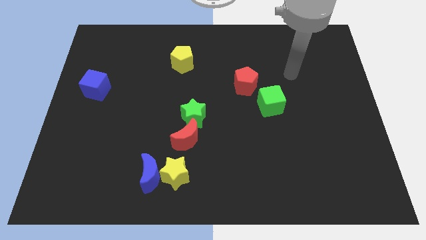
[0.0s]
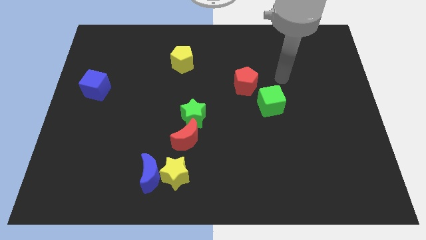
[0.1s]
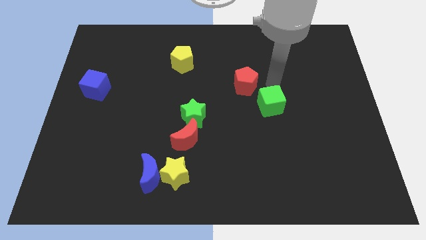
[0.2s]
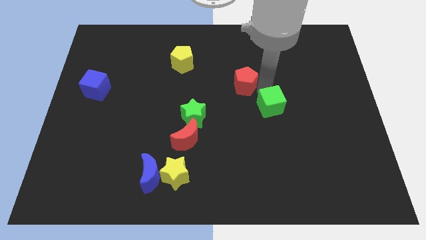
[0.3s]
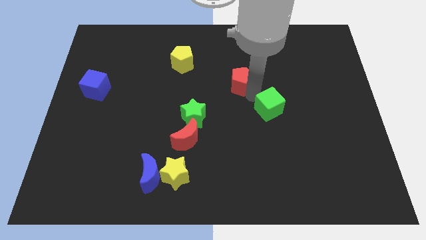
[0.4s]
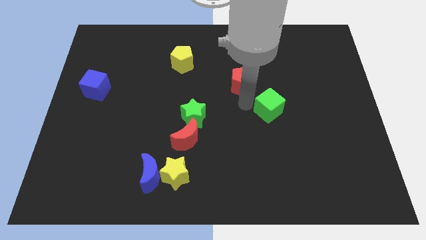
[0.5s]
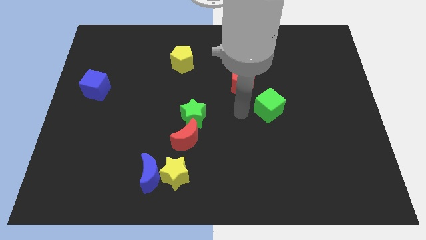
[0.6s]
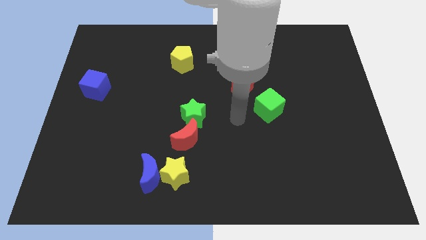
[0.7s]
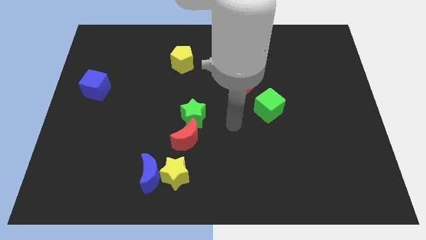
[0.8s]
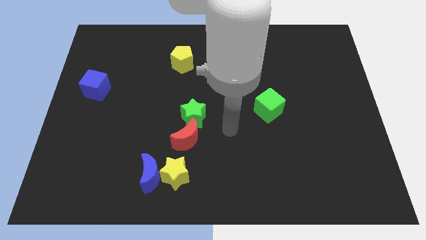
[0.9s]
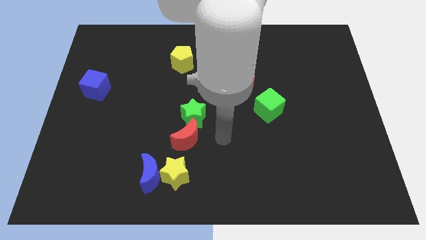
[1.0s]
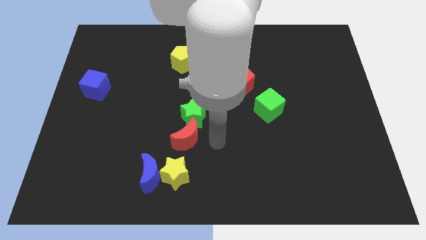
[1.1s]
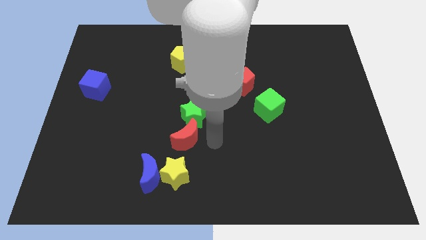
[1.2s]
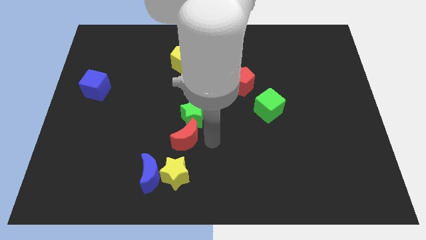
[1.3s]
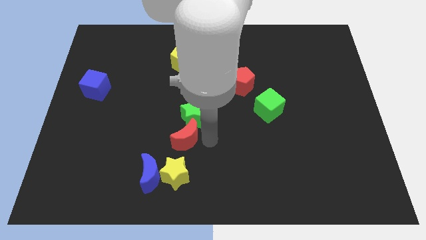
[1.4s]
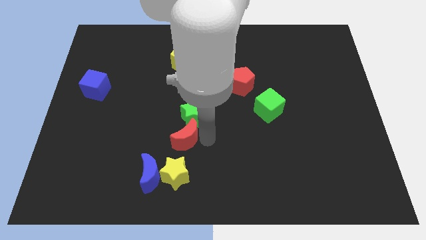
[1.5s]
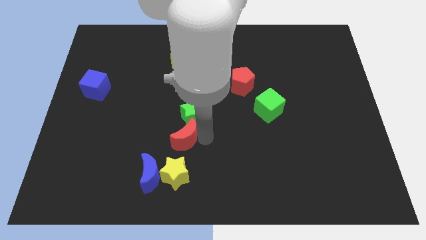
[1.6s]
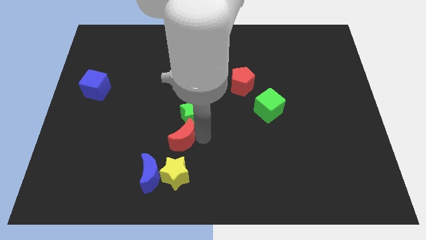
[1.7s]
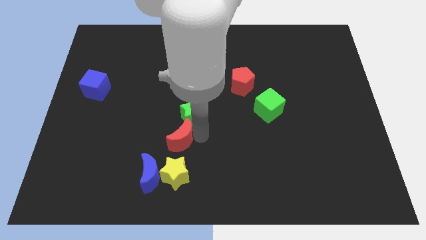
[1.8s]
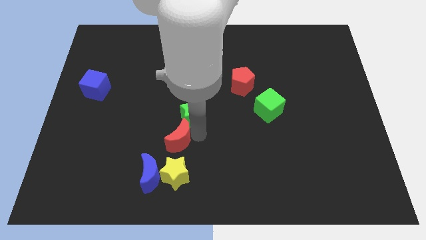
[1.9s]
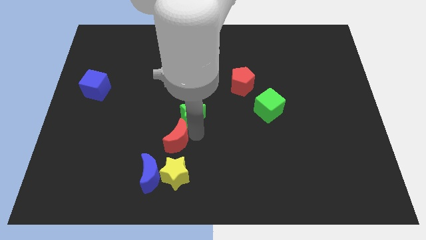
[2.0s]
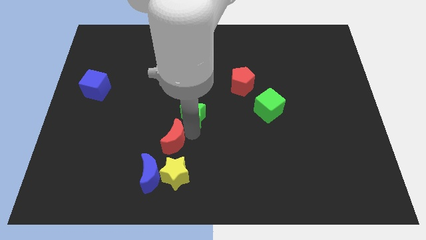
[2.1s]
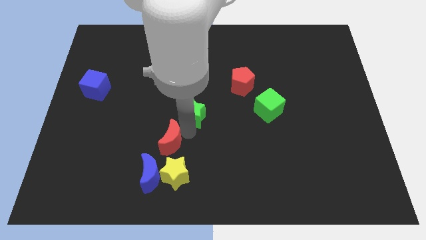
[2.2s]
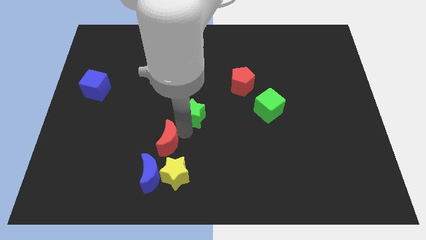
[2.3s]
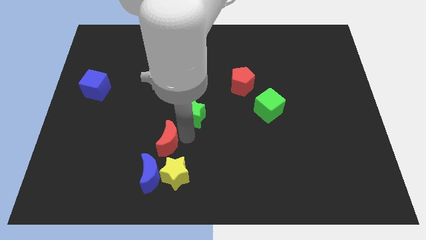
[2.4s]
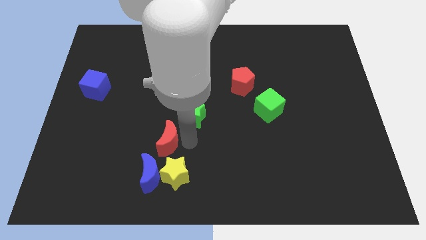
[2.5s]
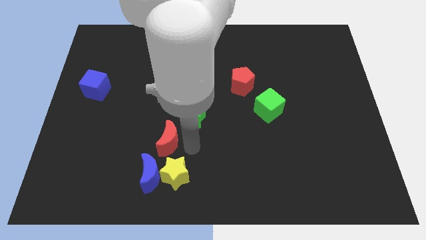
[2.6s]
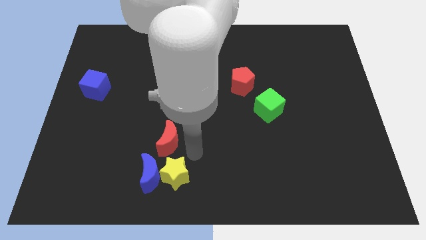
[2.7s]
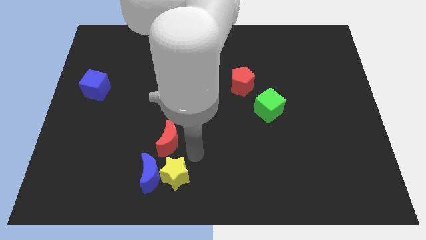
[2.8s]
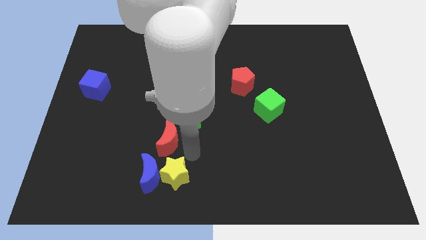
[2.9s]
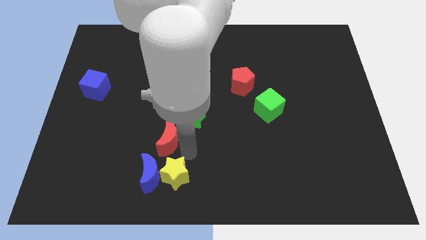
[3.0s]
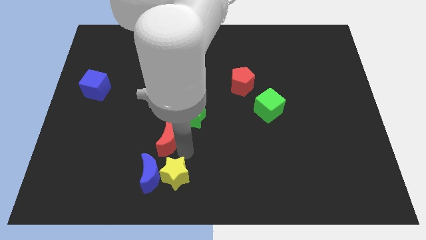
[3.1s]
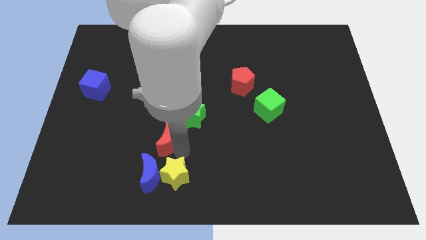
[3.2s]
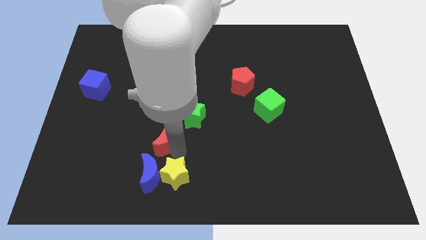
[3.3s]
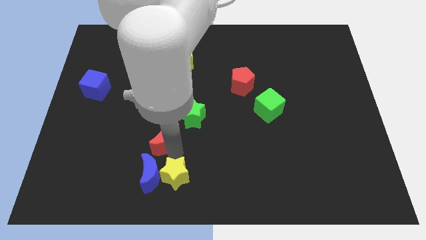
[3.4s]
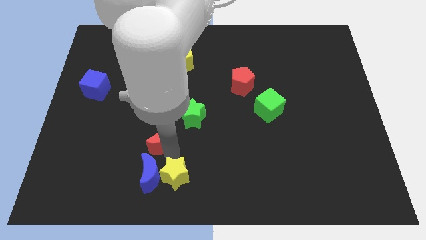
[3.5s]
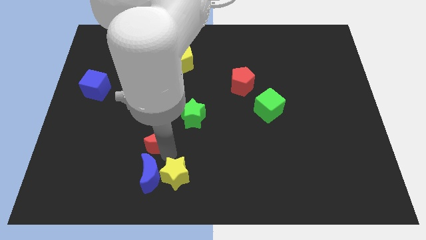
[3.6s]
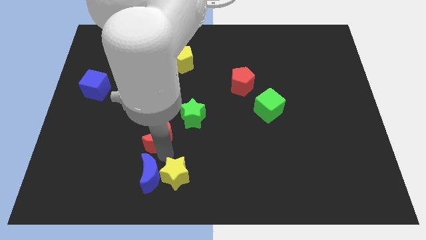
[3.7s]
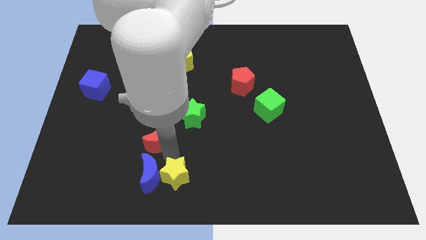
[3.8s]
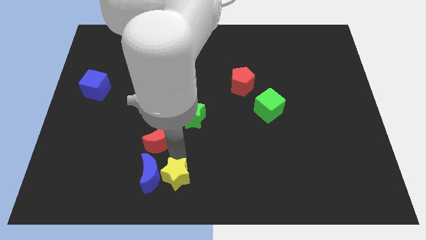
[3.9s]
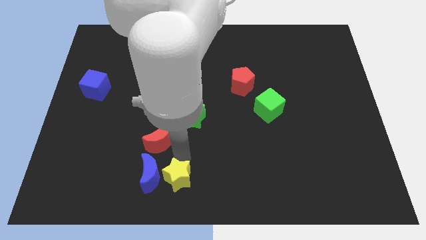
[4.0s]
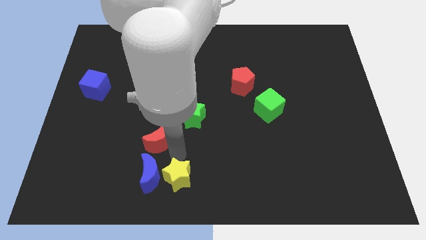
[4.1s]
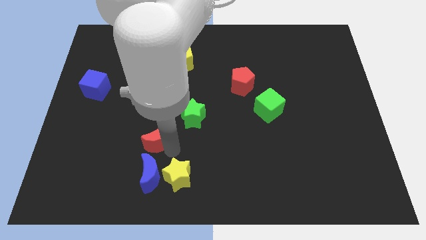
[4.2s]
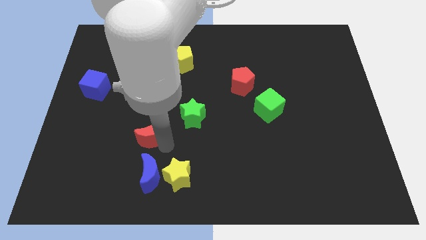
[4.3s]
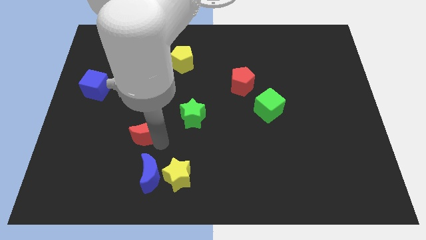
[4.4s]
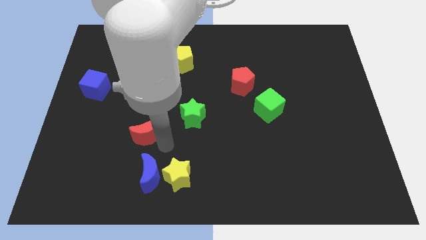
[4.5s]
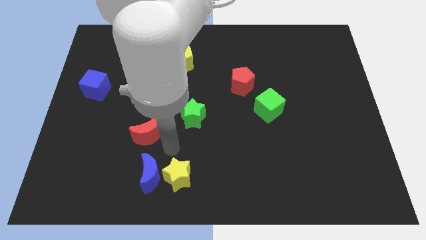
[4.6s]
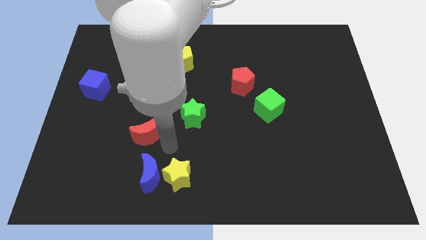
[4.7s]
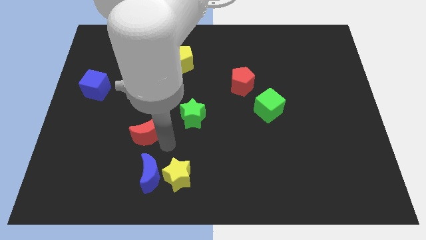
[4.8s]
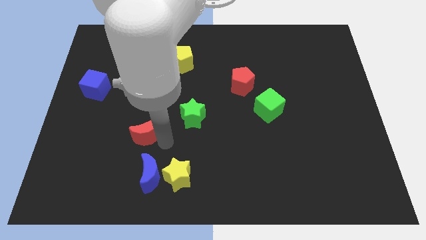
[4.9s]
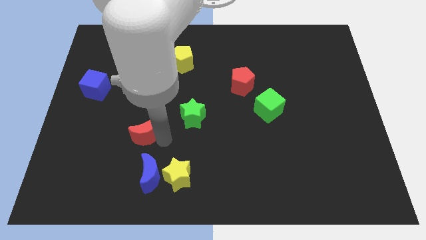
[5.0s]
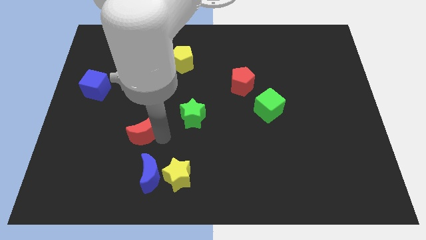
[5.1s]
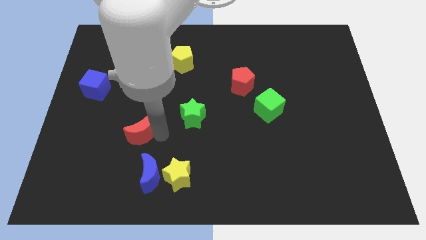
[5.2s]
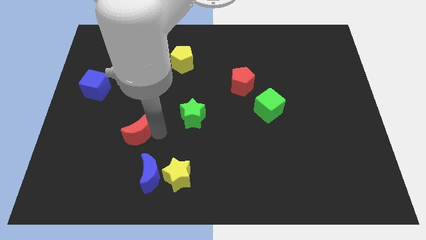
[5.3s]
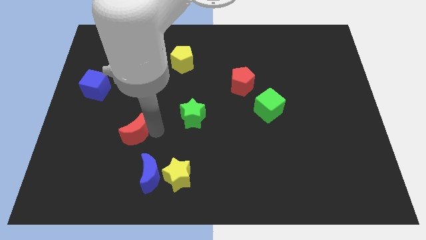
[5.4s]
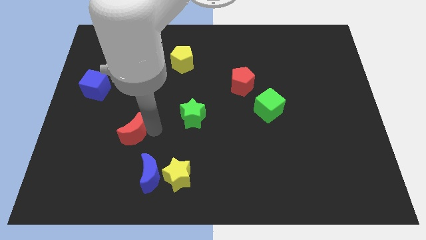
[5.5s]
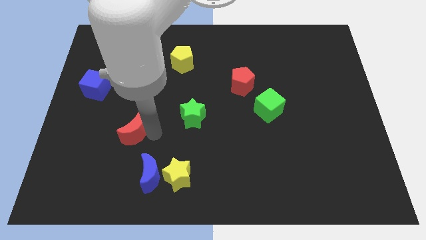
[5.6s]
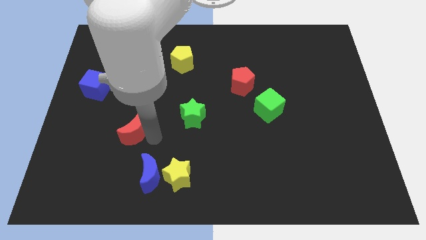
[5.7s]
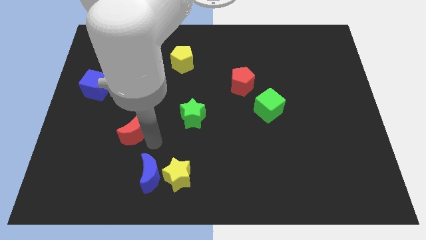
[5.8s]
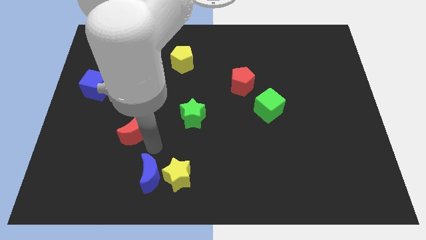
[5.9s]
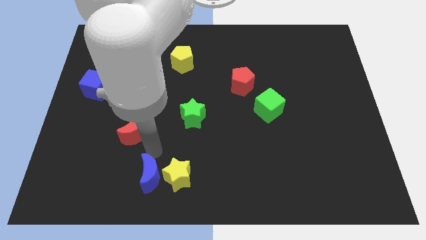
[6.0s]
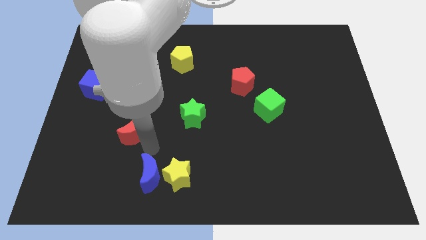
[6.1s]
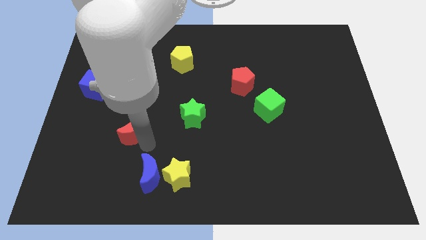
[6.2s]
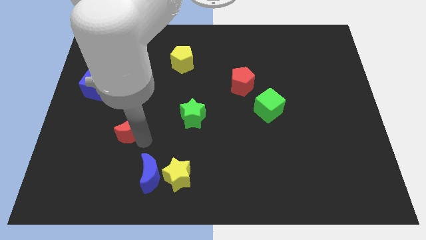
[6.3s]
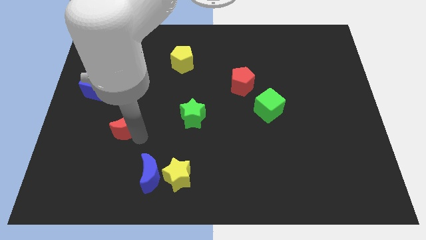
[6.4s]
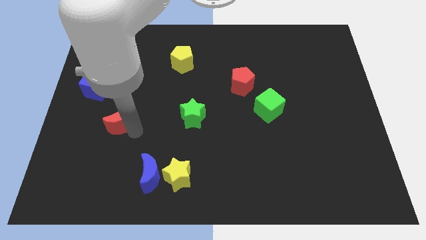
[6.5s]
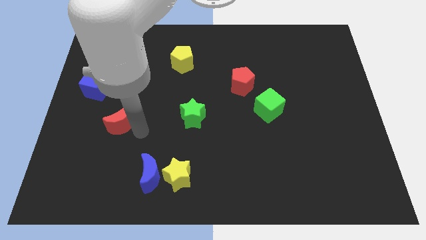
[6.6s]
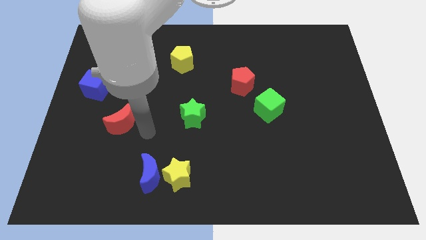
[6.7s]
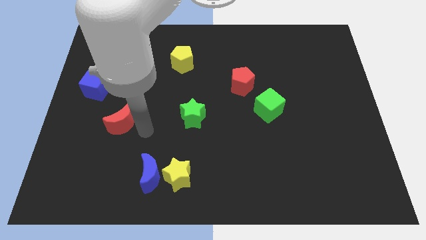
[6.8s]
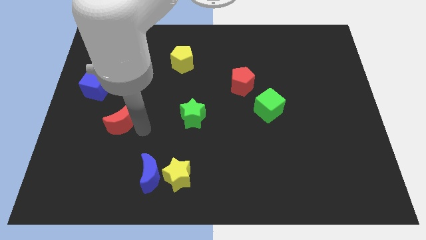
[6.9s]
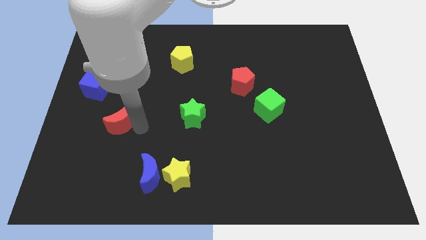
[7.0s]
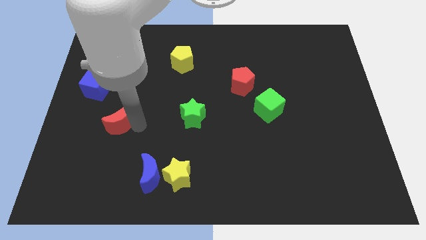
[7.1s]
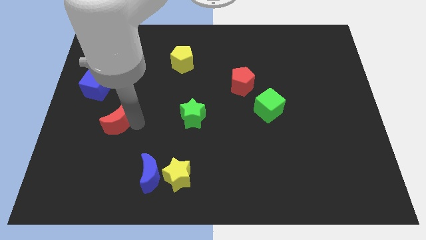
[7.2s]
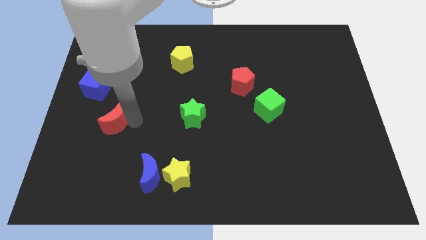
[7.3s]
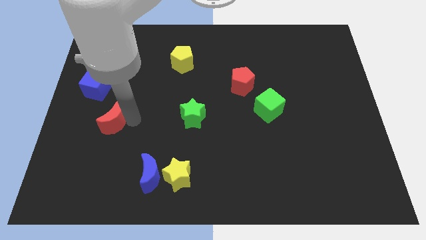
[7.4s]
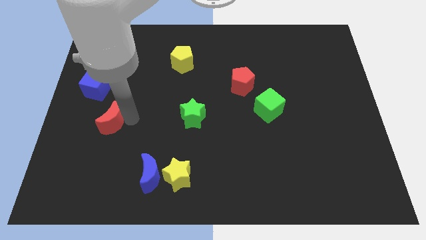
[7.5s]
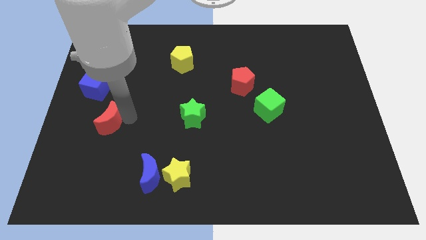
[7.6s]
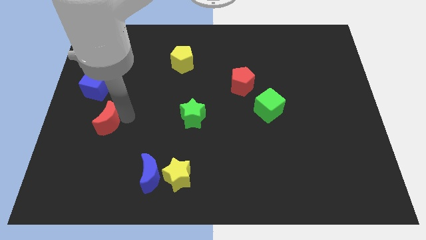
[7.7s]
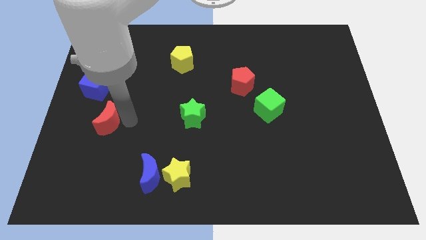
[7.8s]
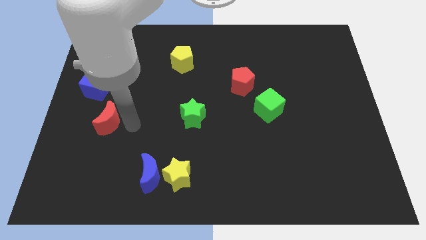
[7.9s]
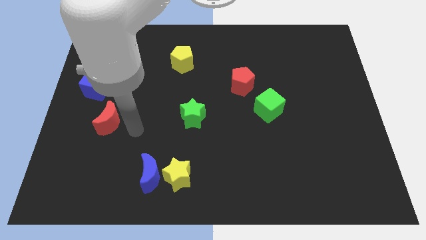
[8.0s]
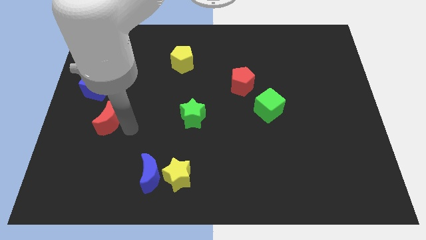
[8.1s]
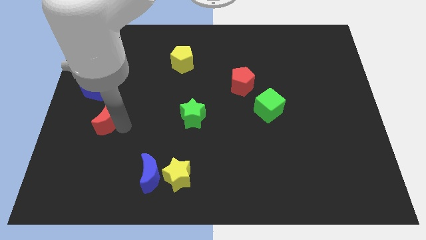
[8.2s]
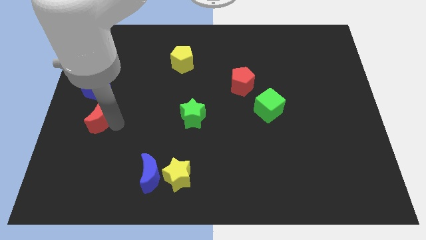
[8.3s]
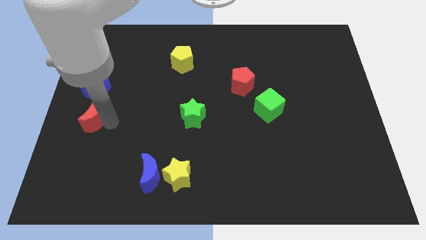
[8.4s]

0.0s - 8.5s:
push the red moon to the center left
